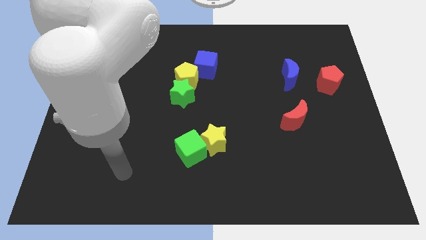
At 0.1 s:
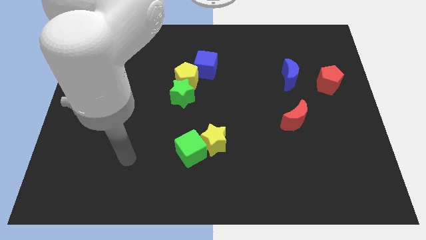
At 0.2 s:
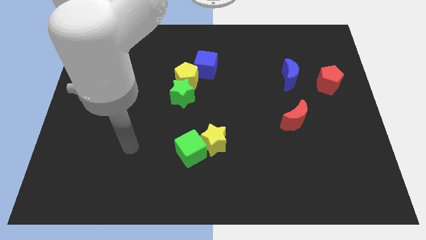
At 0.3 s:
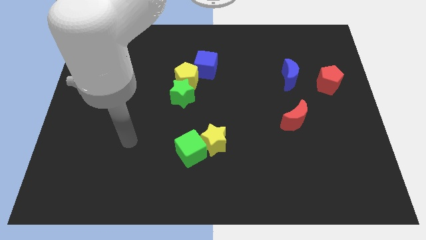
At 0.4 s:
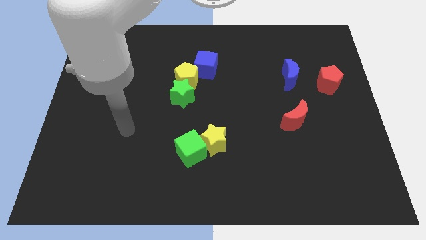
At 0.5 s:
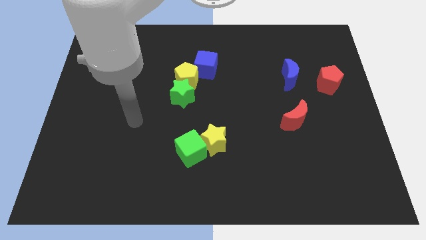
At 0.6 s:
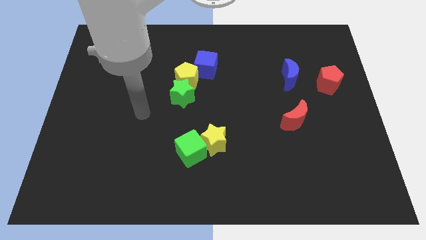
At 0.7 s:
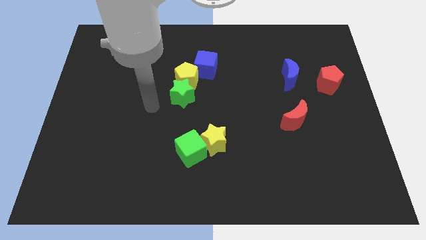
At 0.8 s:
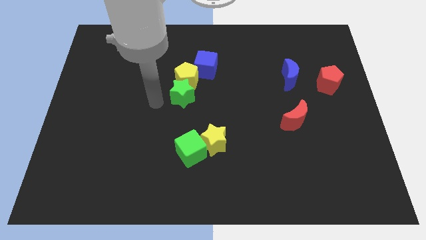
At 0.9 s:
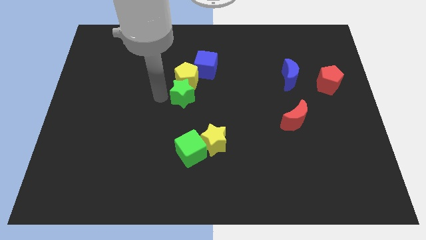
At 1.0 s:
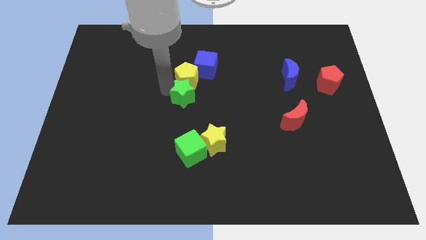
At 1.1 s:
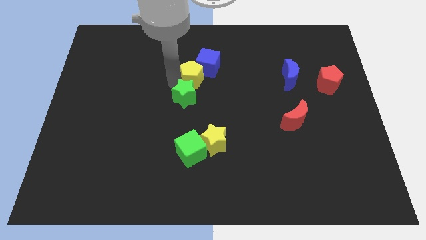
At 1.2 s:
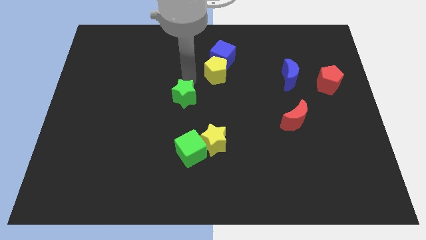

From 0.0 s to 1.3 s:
pull the green star apart from the yellow pentagon

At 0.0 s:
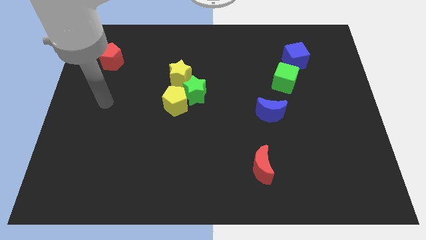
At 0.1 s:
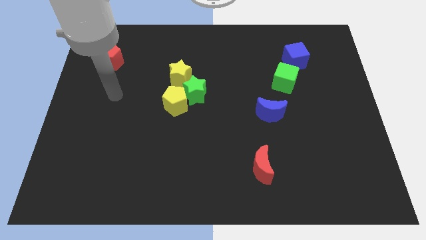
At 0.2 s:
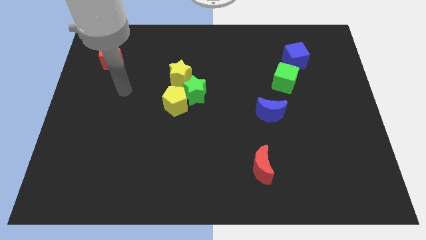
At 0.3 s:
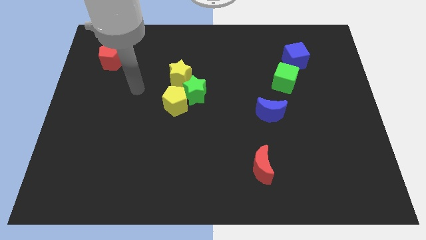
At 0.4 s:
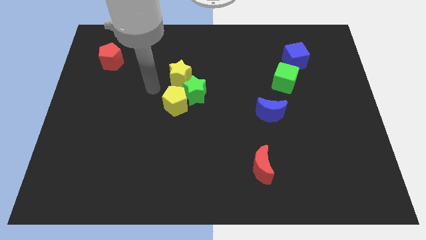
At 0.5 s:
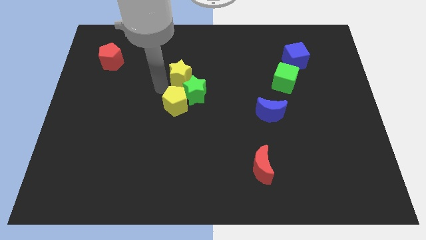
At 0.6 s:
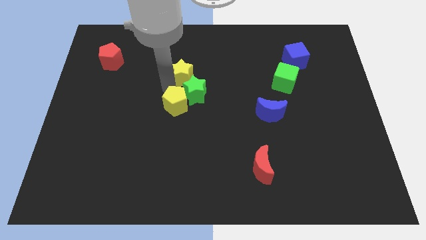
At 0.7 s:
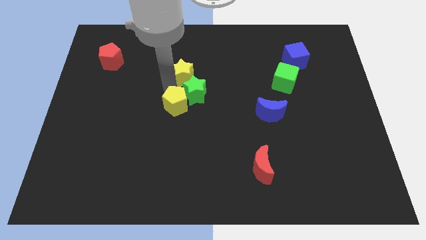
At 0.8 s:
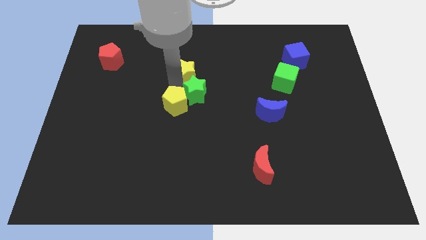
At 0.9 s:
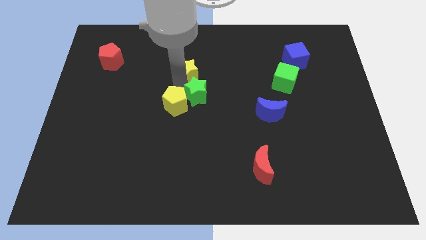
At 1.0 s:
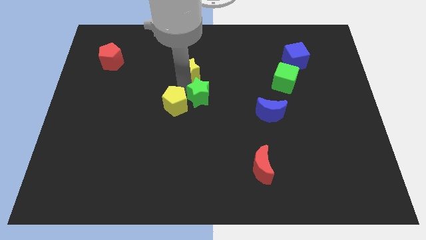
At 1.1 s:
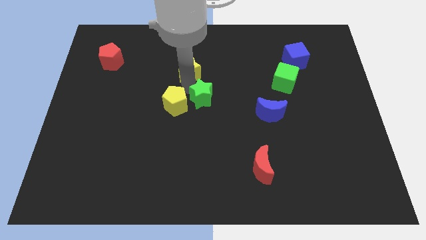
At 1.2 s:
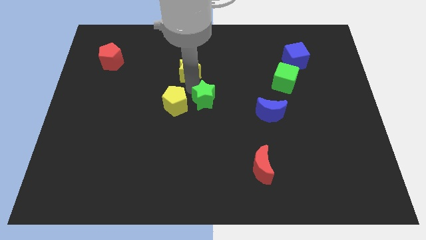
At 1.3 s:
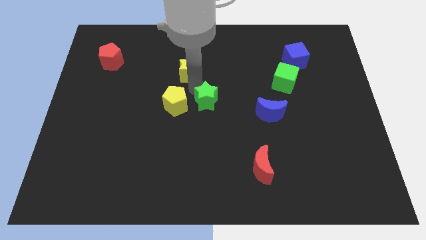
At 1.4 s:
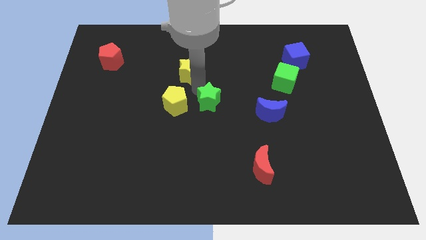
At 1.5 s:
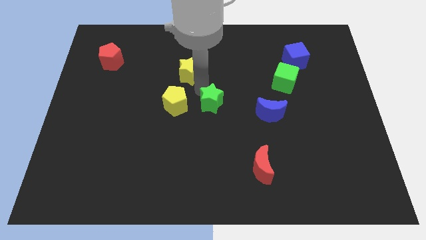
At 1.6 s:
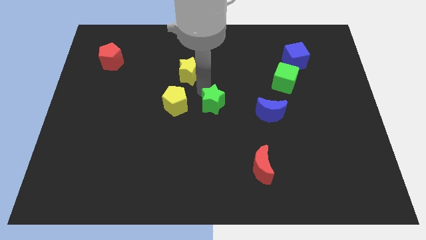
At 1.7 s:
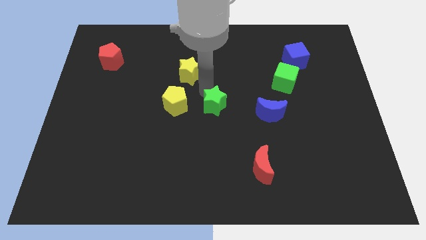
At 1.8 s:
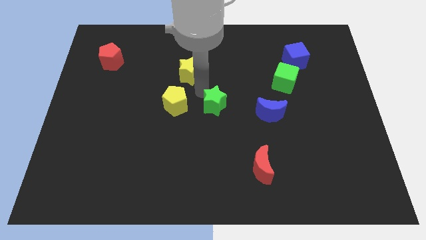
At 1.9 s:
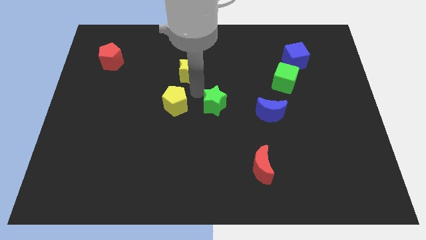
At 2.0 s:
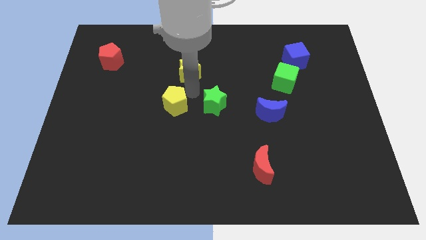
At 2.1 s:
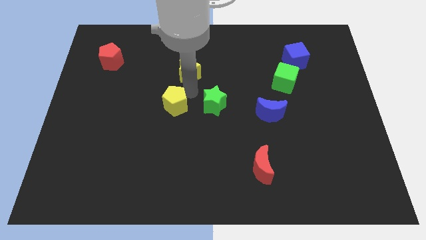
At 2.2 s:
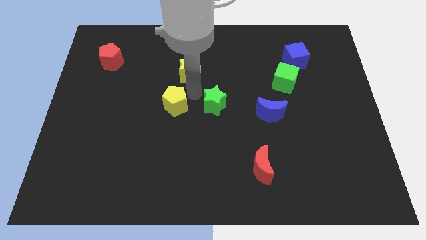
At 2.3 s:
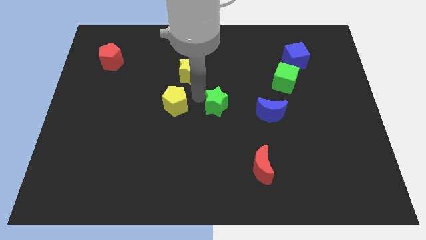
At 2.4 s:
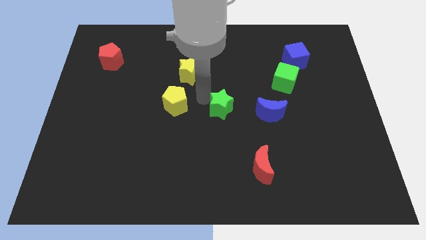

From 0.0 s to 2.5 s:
separate the green star from the yellow pentagon and yellow star

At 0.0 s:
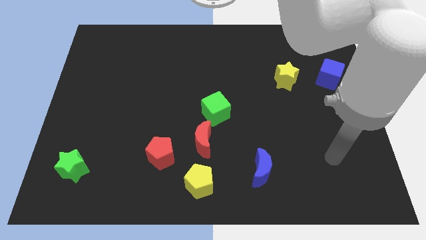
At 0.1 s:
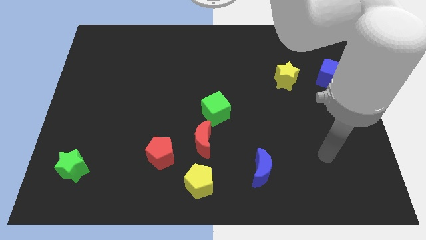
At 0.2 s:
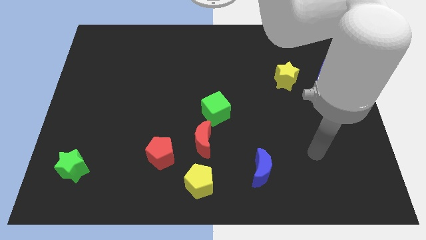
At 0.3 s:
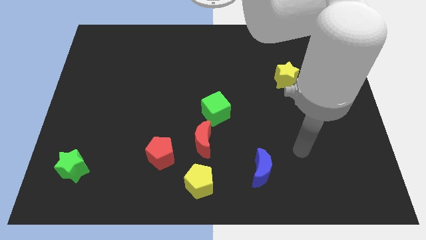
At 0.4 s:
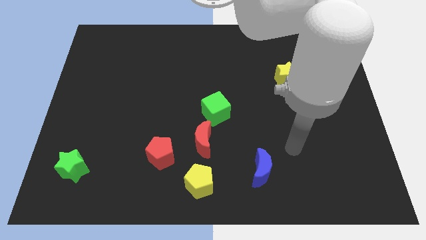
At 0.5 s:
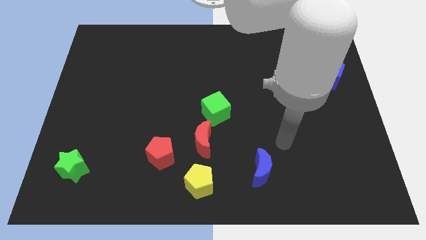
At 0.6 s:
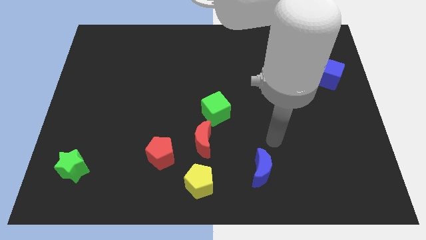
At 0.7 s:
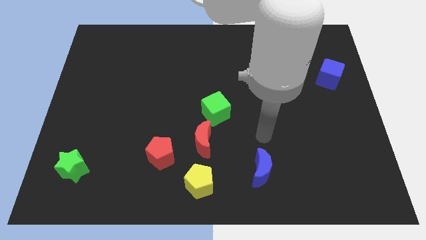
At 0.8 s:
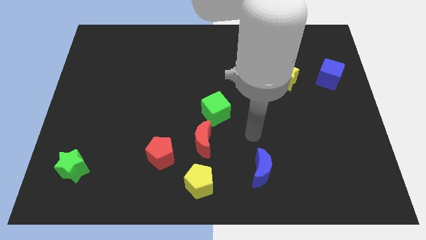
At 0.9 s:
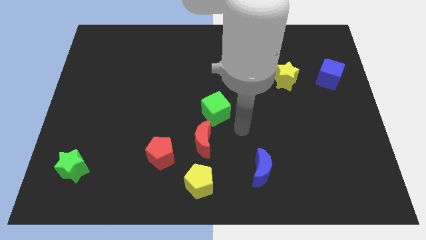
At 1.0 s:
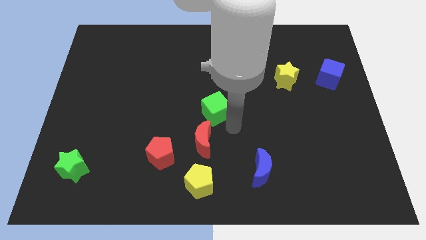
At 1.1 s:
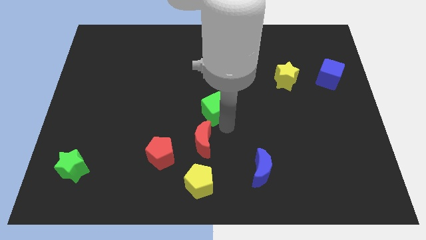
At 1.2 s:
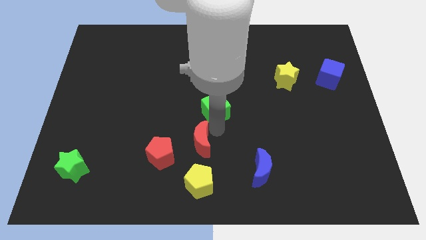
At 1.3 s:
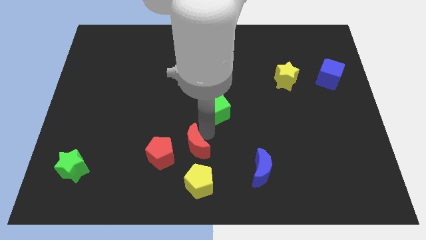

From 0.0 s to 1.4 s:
move the green cube away from the red moon

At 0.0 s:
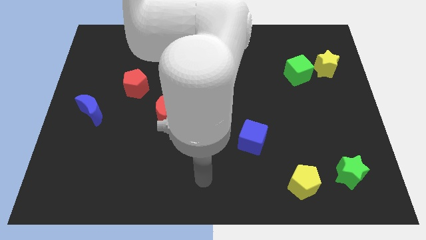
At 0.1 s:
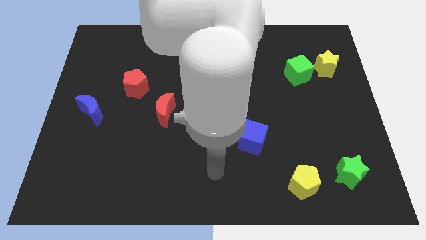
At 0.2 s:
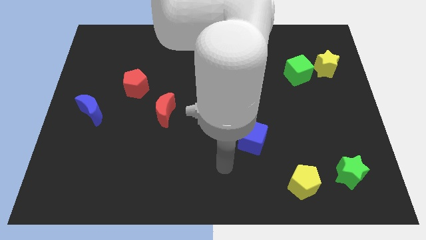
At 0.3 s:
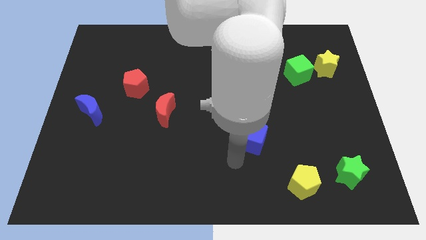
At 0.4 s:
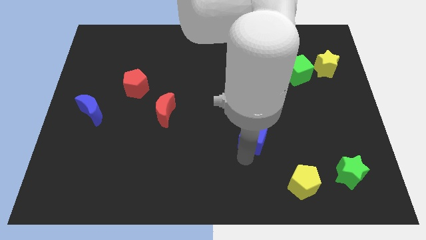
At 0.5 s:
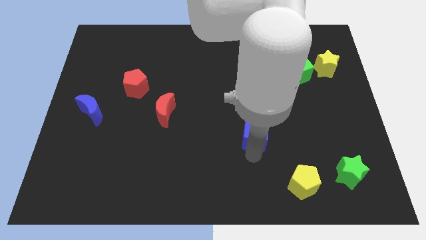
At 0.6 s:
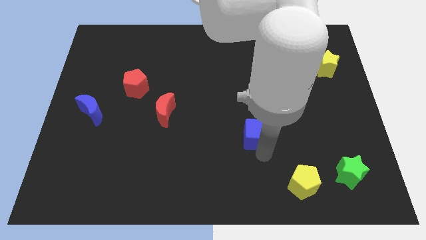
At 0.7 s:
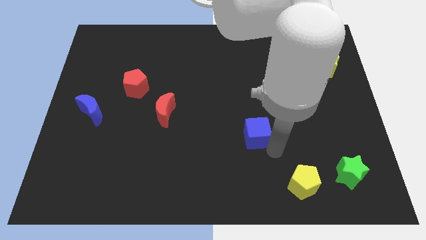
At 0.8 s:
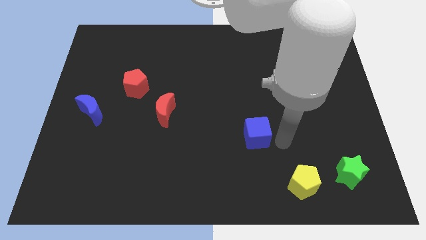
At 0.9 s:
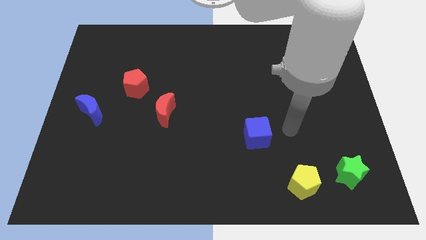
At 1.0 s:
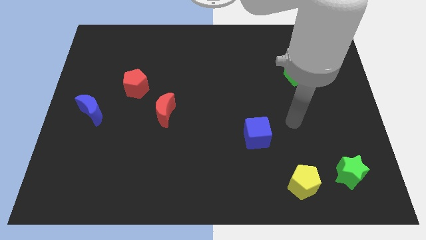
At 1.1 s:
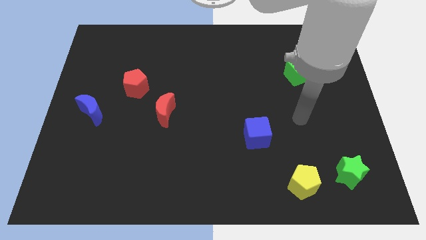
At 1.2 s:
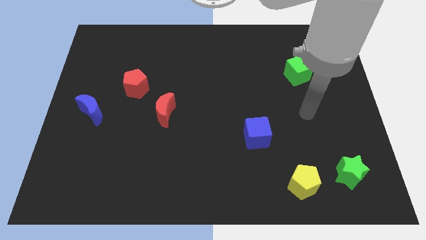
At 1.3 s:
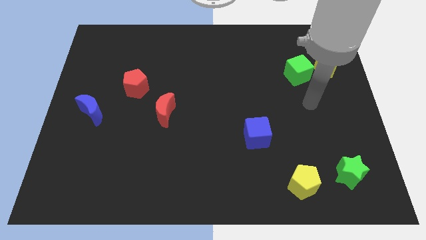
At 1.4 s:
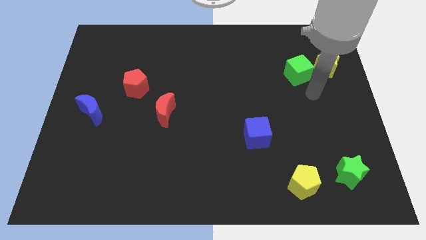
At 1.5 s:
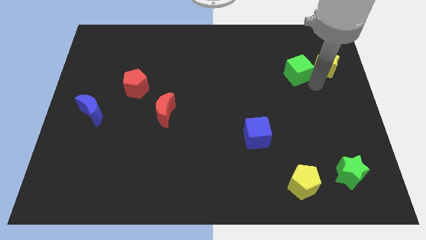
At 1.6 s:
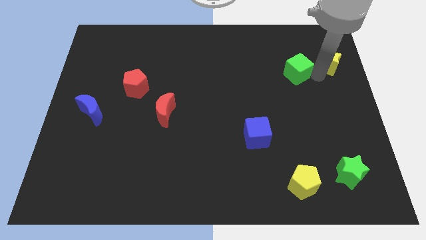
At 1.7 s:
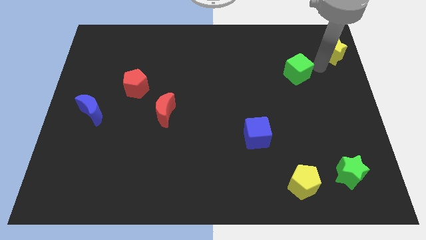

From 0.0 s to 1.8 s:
separate the green cube from the yellow star

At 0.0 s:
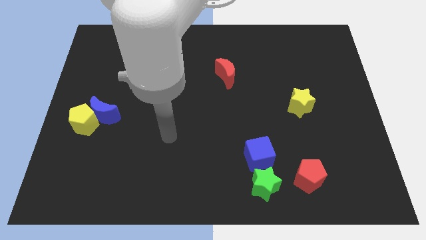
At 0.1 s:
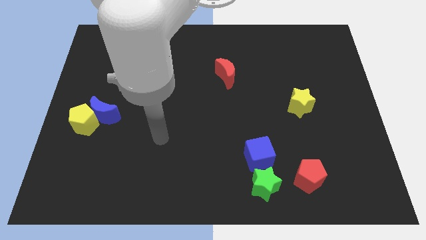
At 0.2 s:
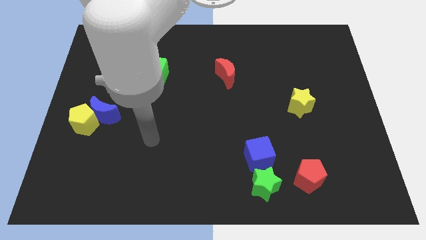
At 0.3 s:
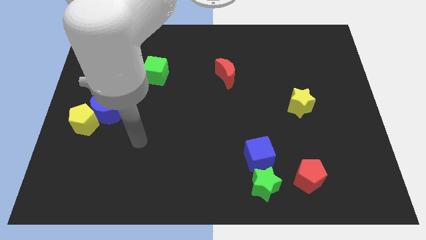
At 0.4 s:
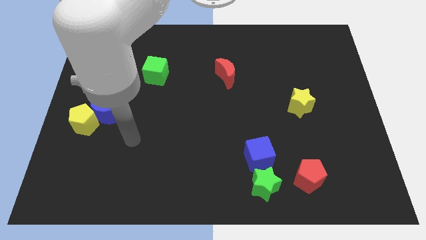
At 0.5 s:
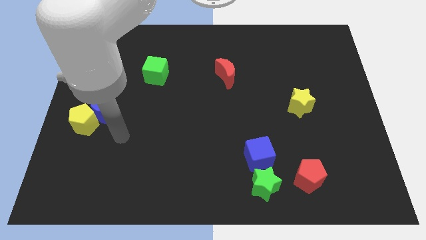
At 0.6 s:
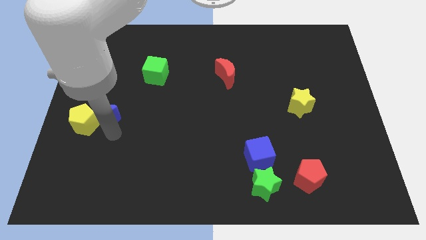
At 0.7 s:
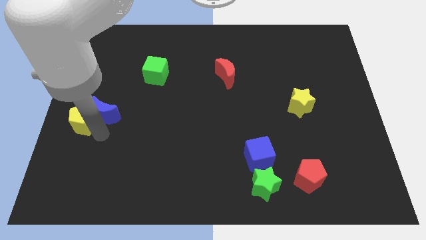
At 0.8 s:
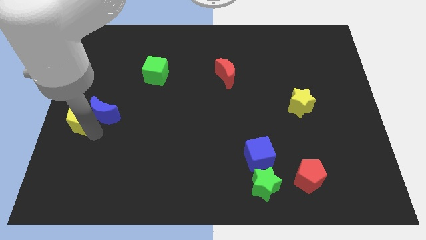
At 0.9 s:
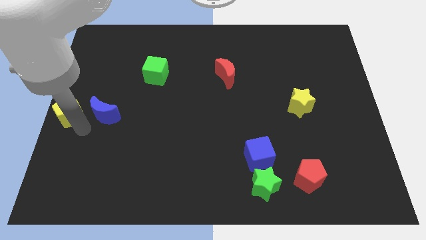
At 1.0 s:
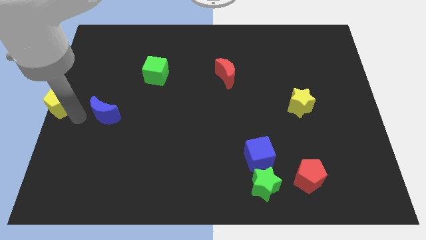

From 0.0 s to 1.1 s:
pull the blue moon apart from the yellow pentagon

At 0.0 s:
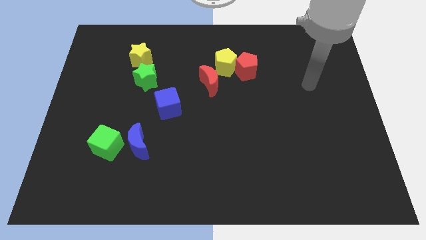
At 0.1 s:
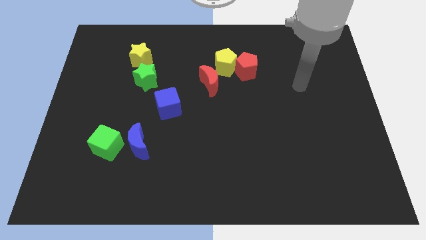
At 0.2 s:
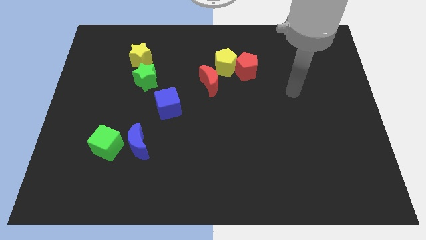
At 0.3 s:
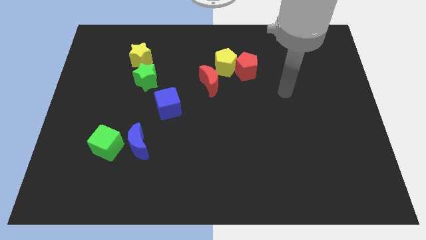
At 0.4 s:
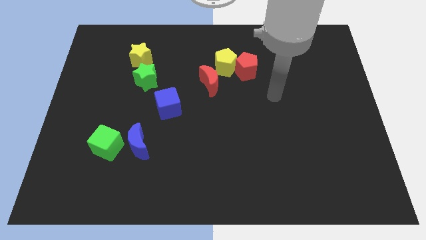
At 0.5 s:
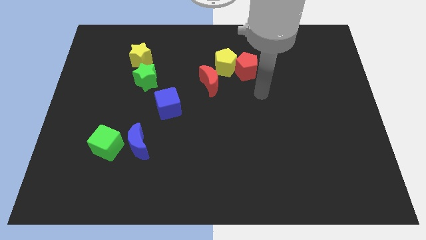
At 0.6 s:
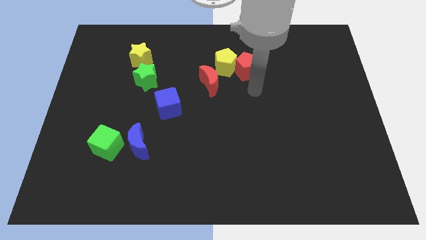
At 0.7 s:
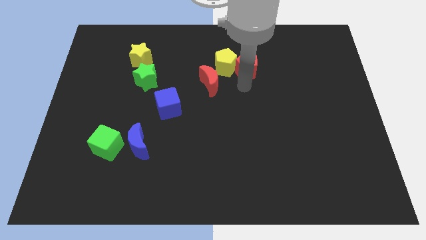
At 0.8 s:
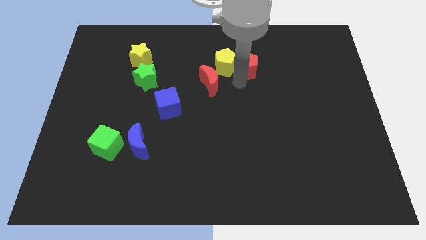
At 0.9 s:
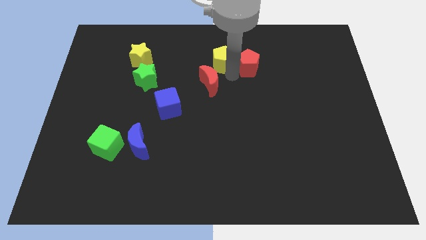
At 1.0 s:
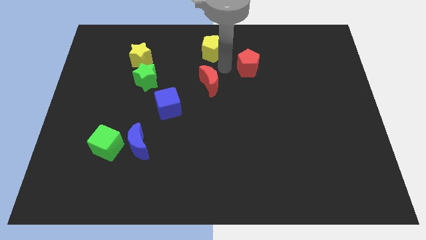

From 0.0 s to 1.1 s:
pull the red pentagon apart from the yellow pentagon
